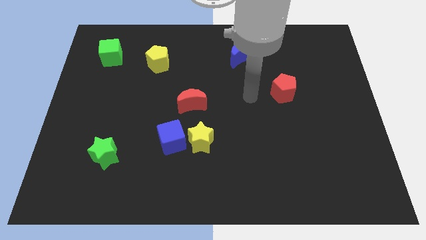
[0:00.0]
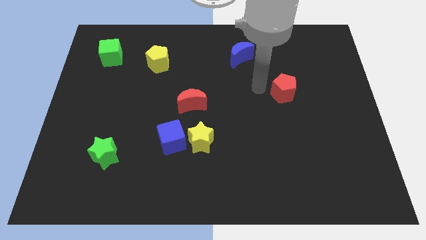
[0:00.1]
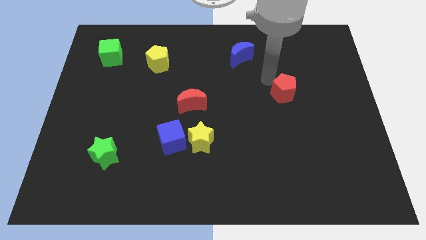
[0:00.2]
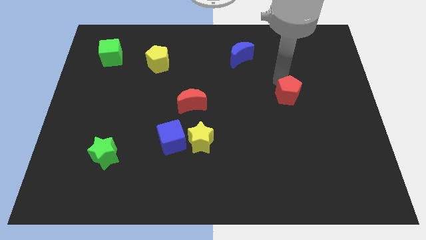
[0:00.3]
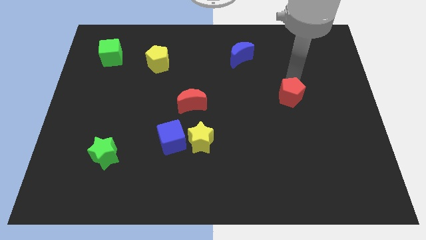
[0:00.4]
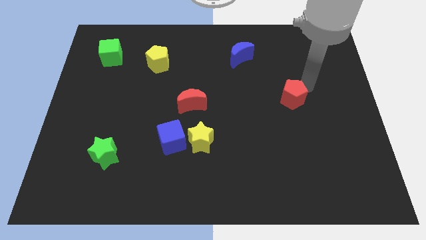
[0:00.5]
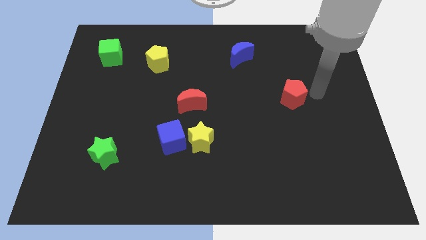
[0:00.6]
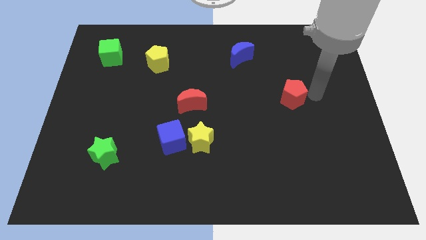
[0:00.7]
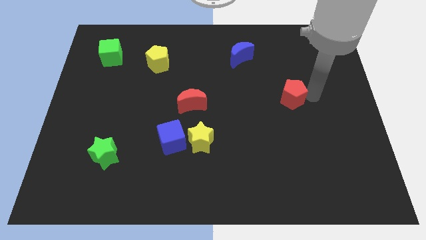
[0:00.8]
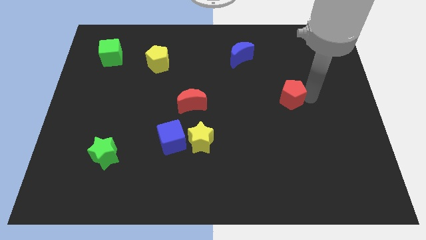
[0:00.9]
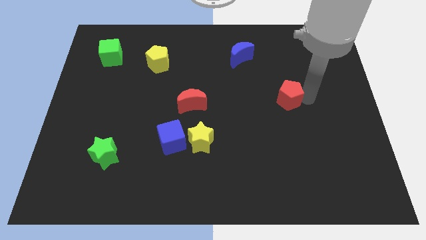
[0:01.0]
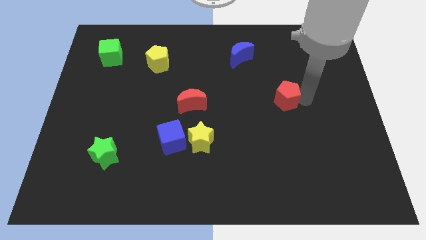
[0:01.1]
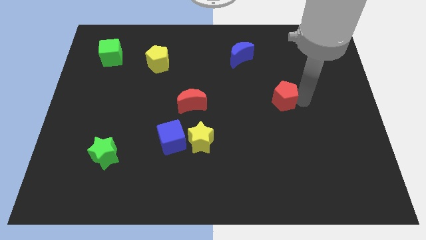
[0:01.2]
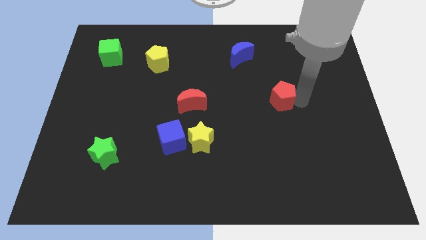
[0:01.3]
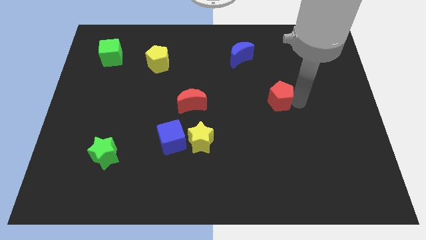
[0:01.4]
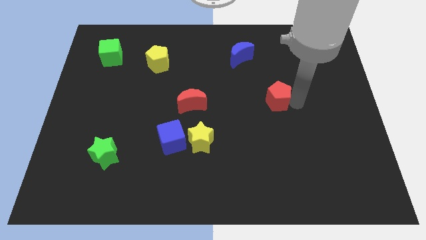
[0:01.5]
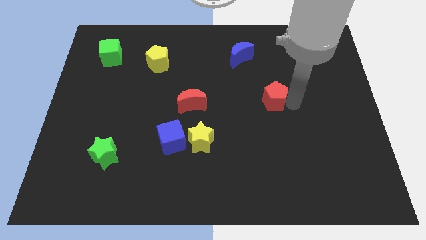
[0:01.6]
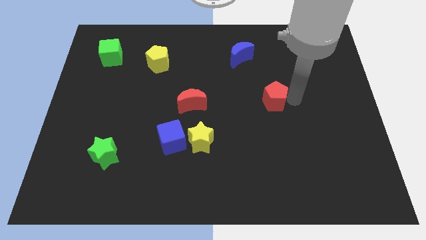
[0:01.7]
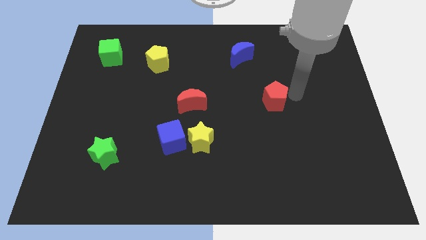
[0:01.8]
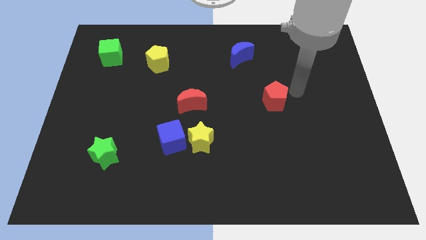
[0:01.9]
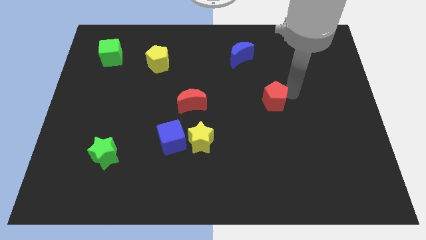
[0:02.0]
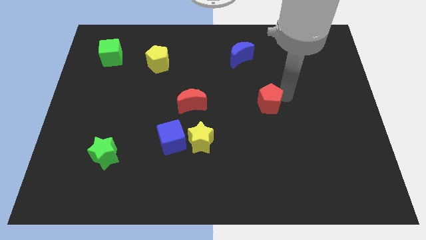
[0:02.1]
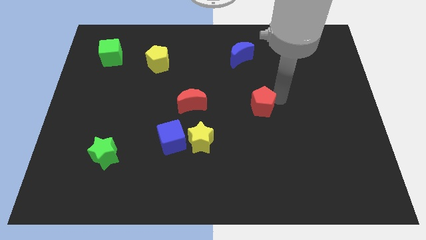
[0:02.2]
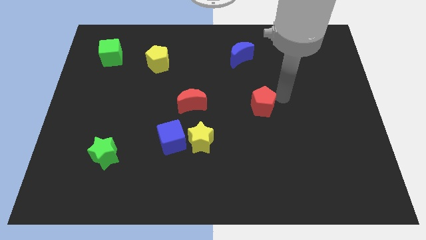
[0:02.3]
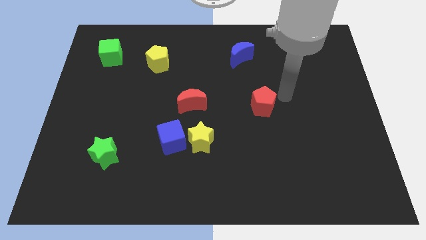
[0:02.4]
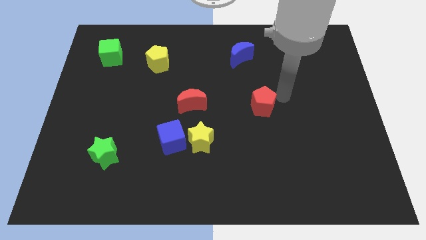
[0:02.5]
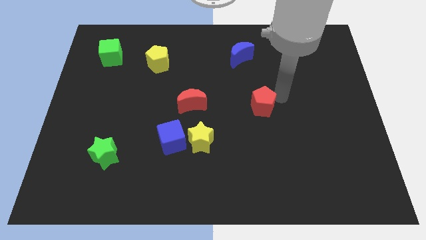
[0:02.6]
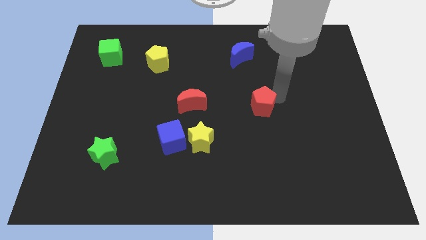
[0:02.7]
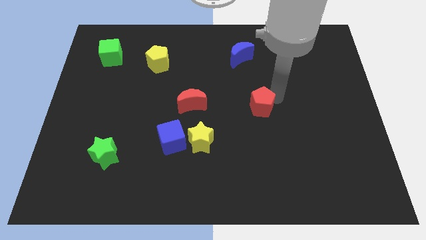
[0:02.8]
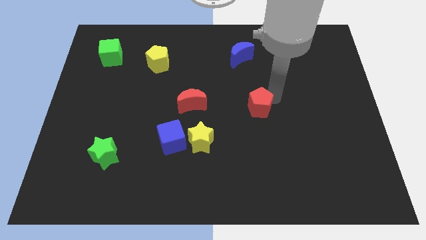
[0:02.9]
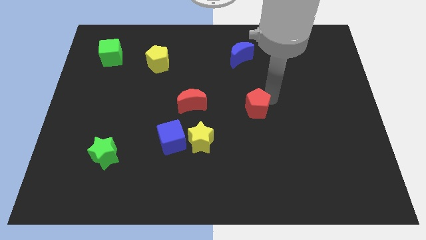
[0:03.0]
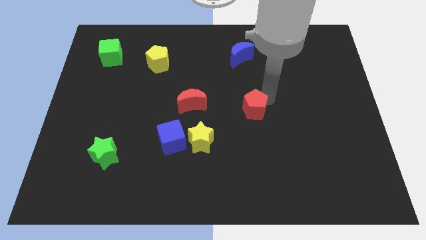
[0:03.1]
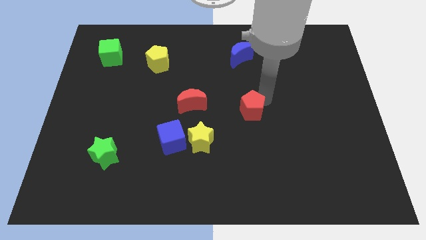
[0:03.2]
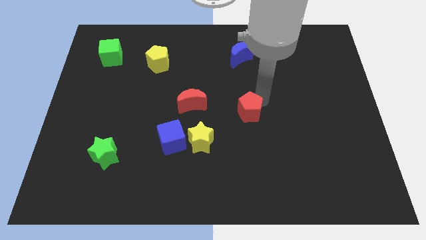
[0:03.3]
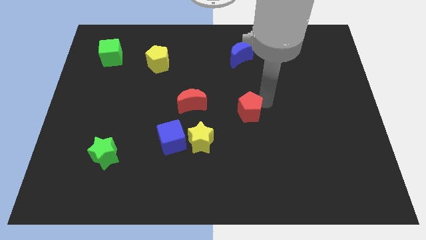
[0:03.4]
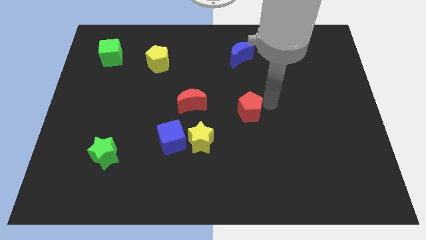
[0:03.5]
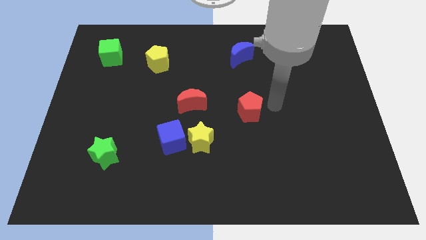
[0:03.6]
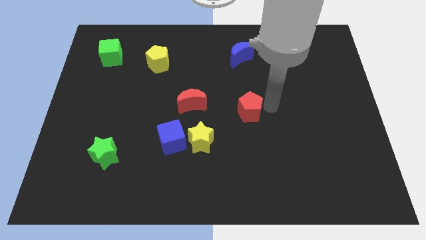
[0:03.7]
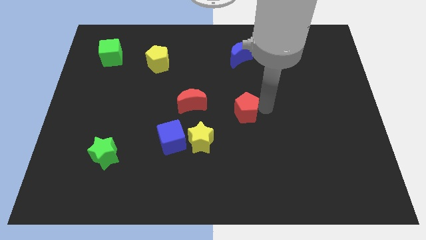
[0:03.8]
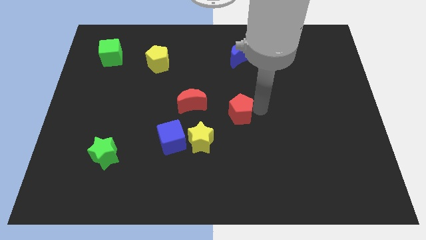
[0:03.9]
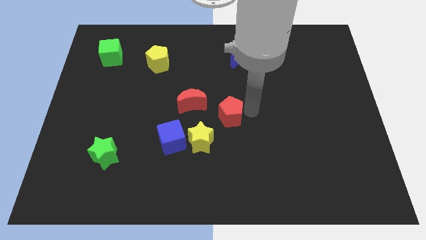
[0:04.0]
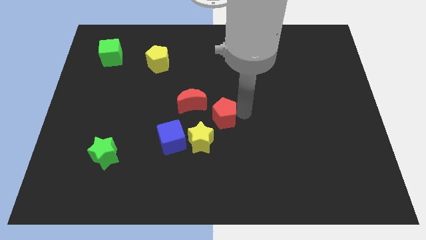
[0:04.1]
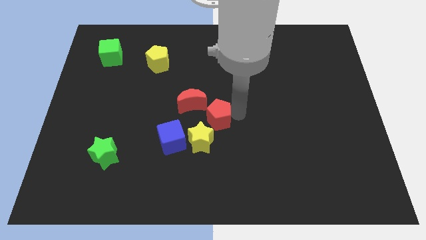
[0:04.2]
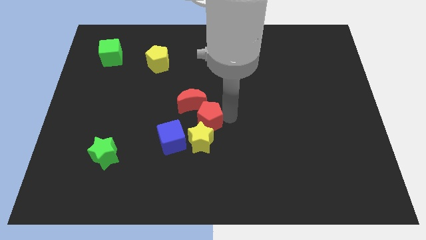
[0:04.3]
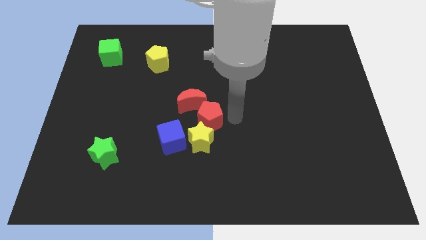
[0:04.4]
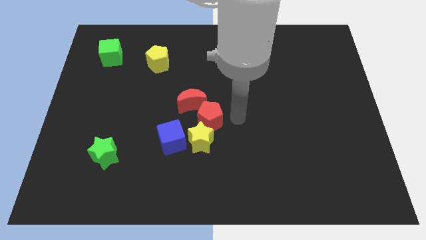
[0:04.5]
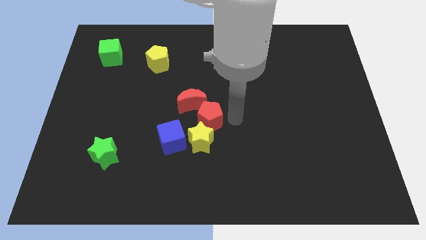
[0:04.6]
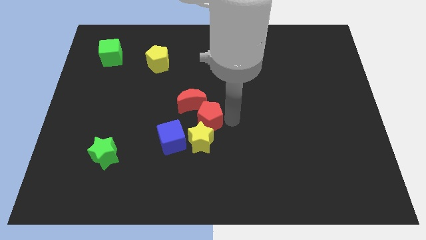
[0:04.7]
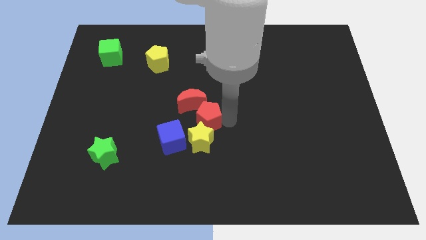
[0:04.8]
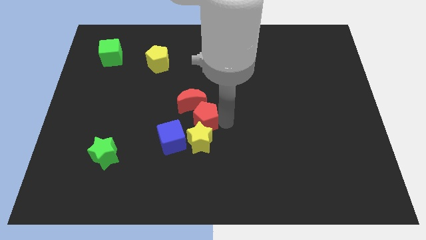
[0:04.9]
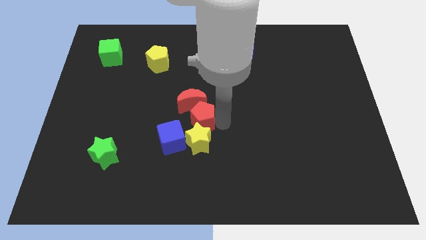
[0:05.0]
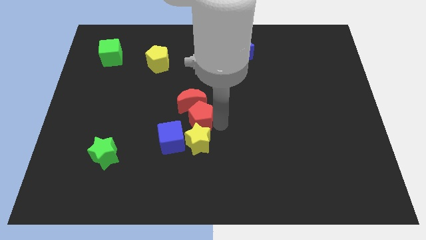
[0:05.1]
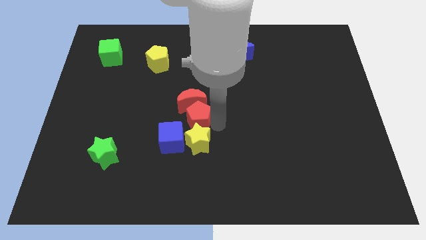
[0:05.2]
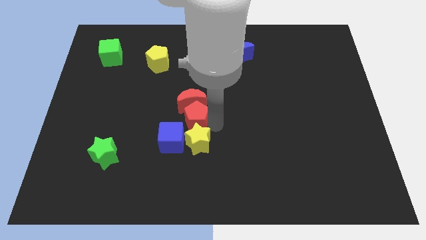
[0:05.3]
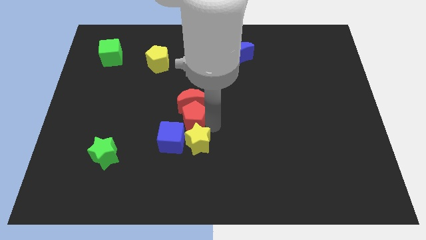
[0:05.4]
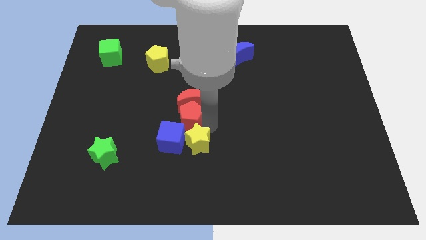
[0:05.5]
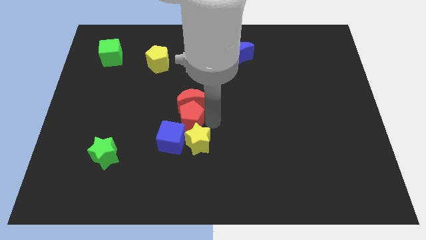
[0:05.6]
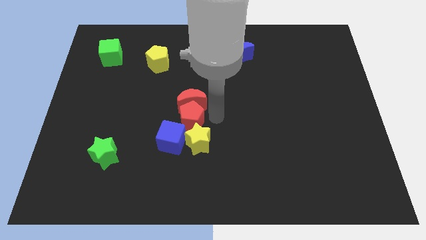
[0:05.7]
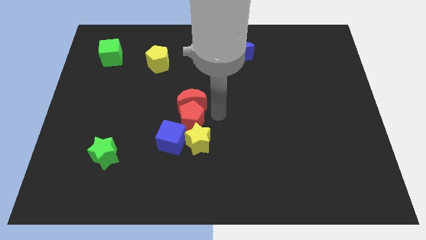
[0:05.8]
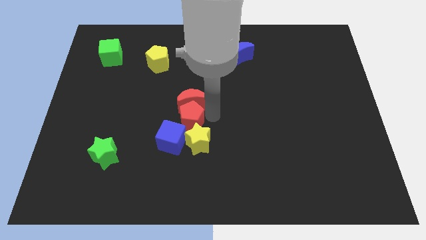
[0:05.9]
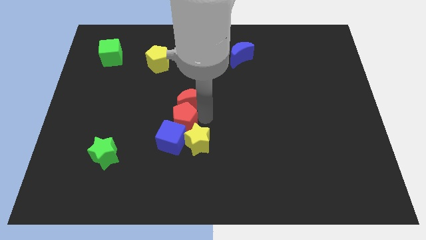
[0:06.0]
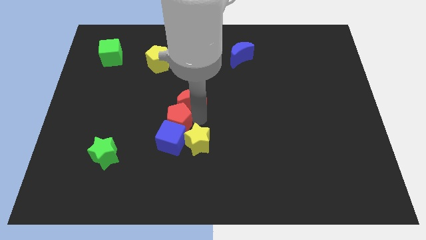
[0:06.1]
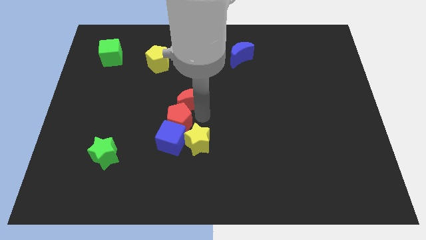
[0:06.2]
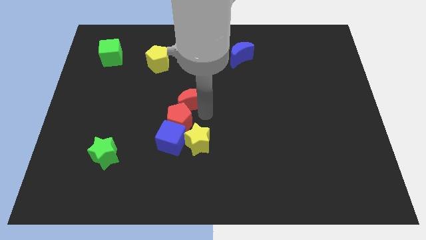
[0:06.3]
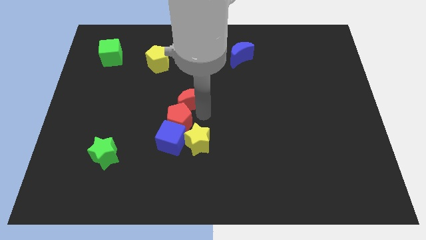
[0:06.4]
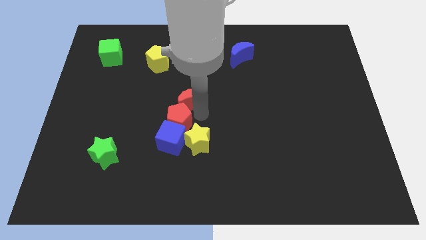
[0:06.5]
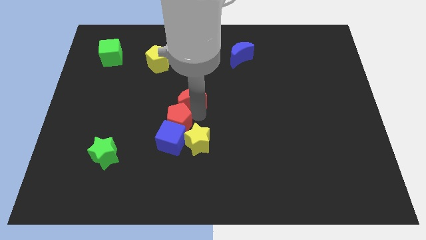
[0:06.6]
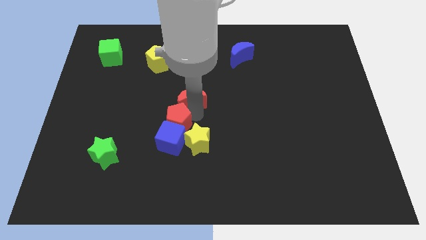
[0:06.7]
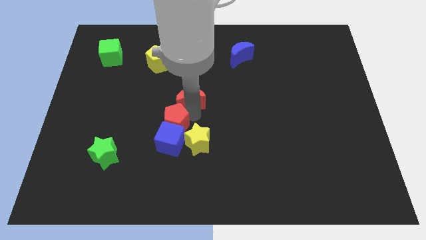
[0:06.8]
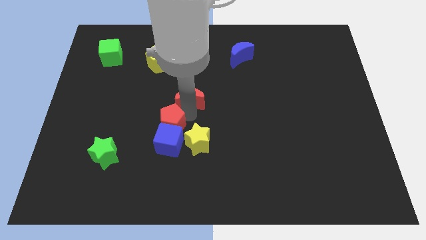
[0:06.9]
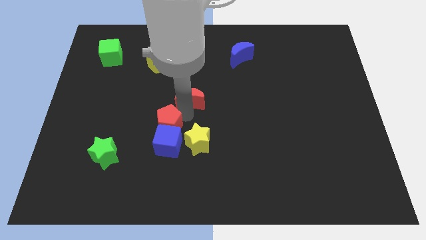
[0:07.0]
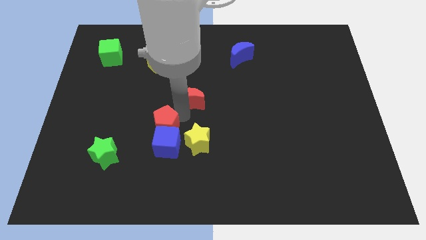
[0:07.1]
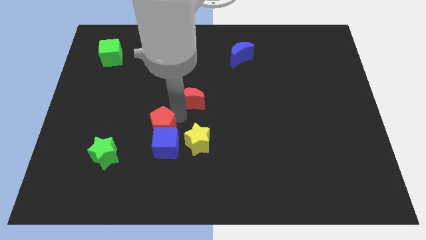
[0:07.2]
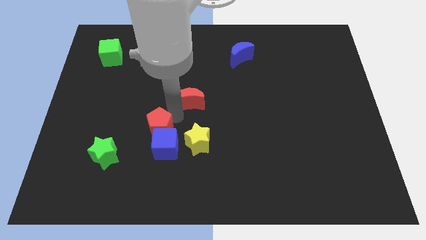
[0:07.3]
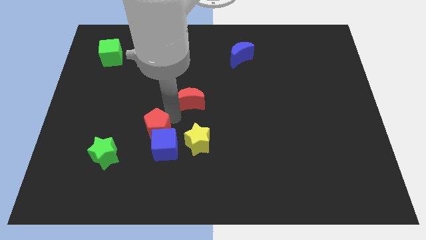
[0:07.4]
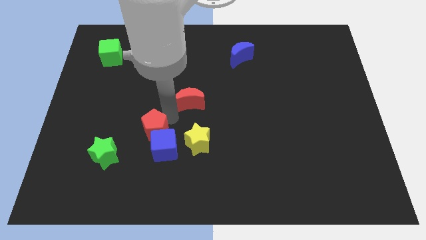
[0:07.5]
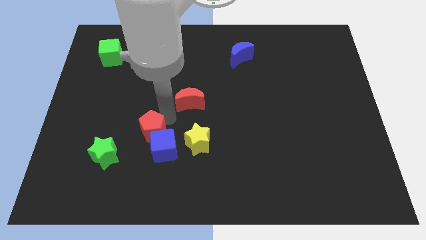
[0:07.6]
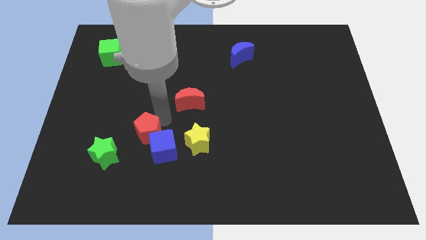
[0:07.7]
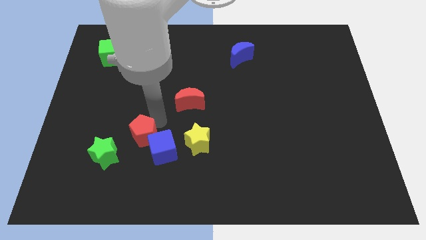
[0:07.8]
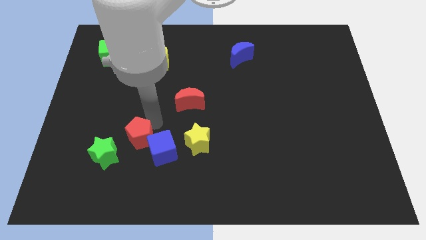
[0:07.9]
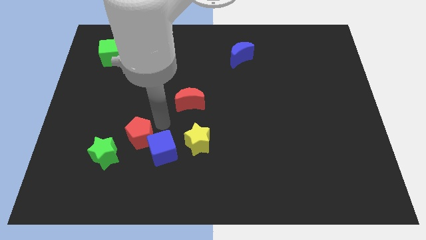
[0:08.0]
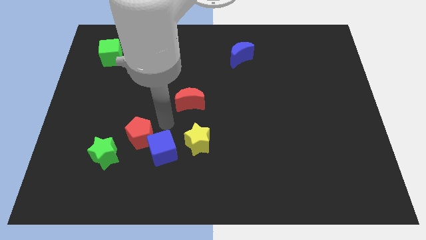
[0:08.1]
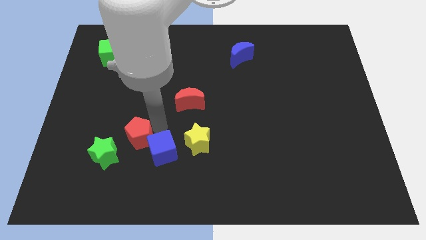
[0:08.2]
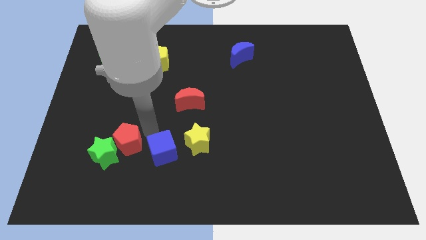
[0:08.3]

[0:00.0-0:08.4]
push the red pentagon close to the green star
